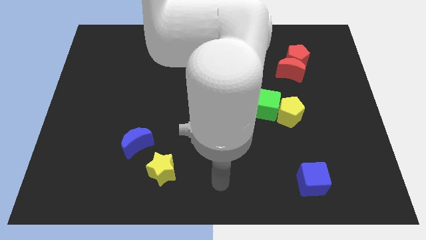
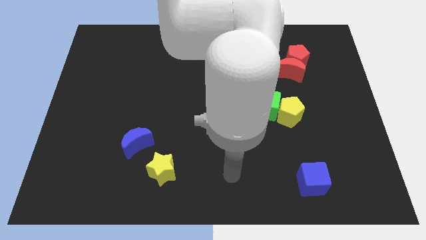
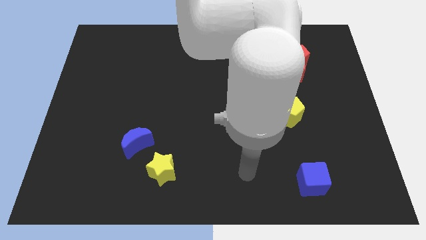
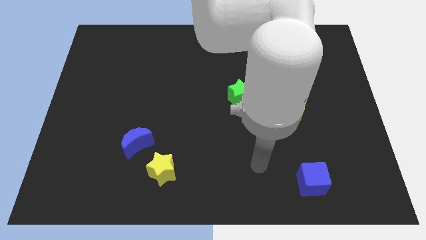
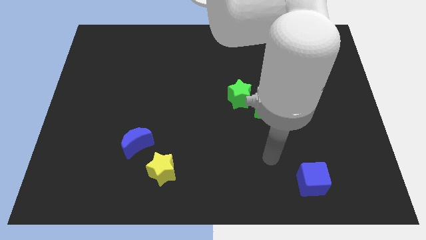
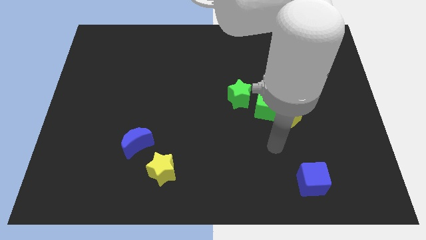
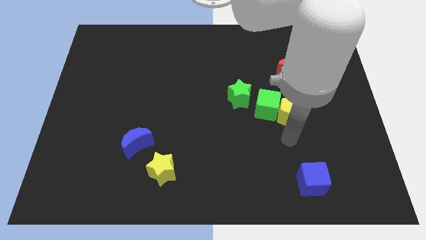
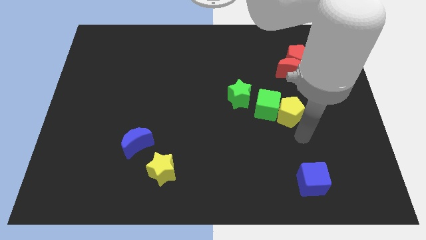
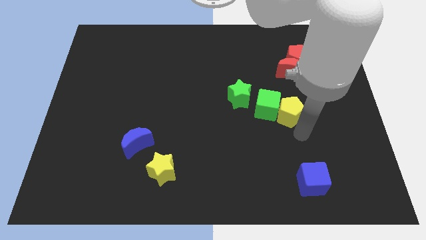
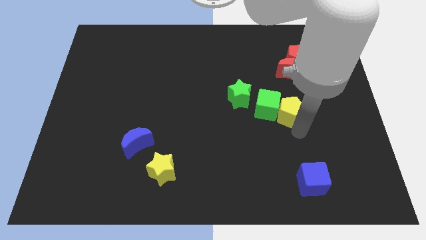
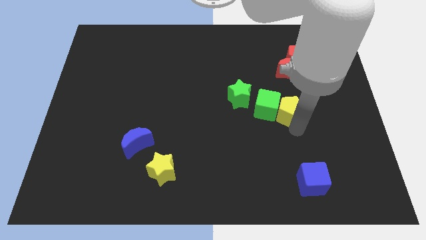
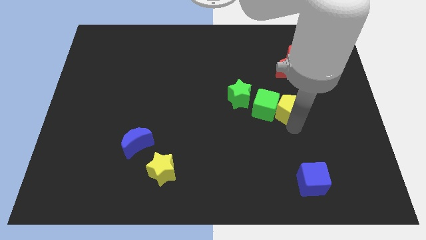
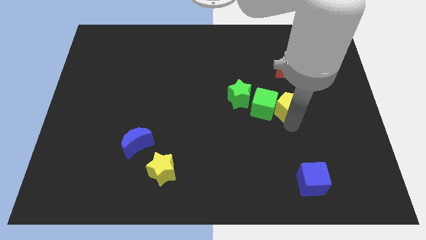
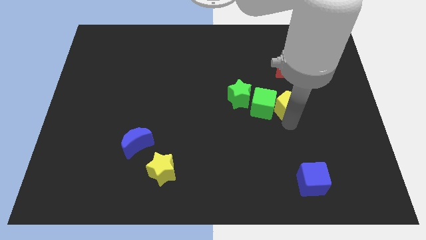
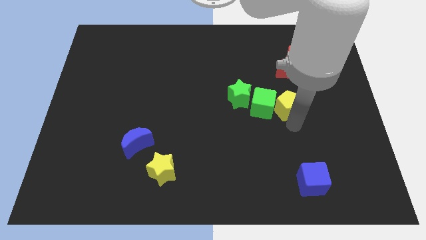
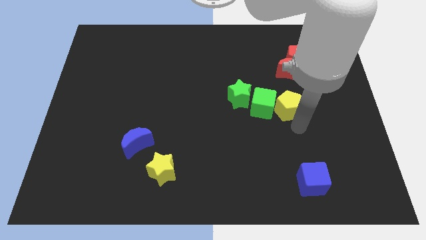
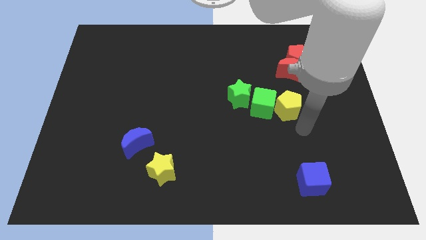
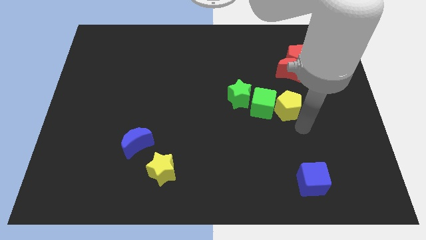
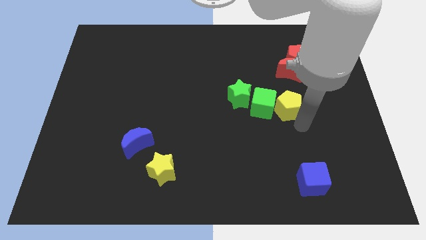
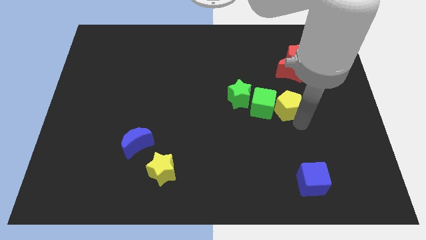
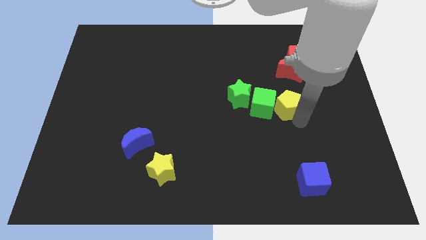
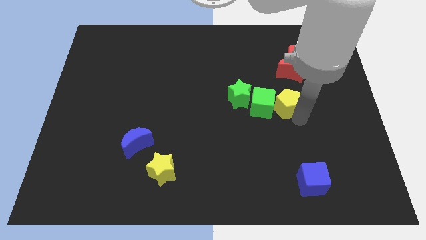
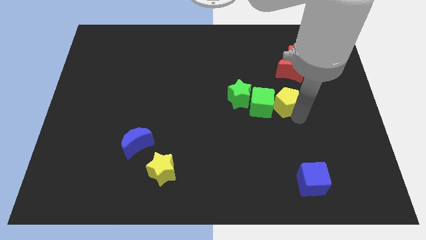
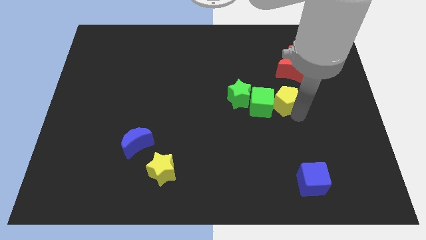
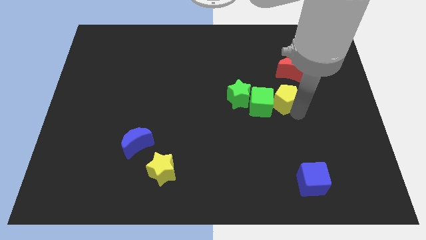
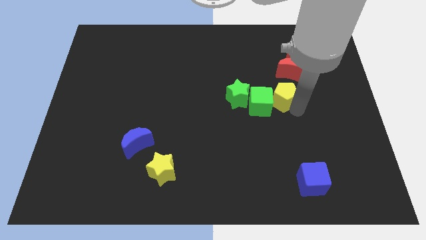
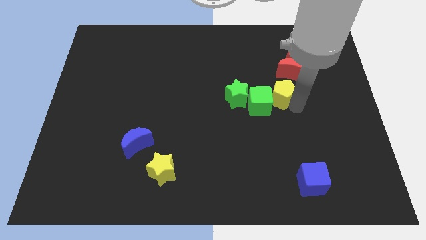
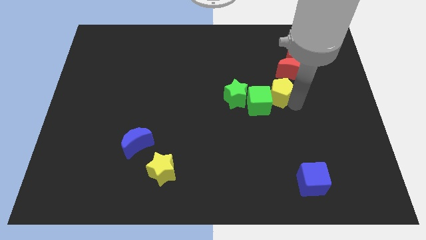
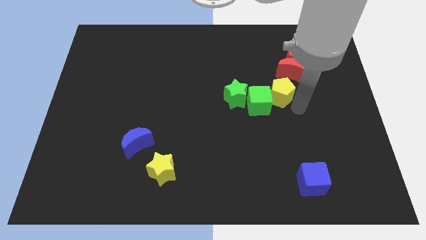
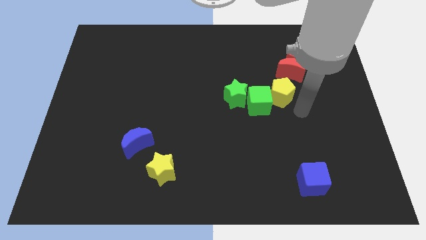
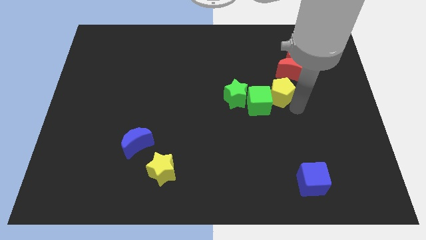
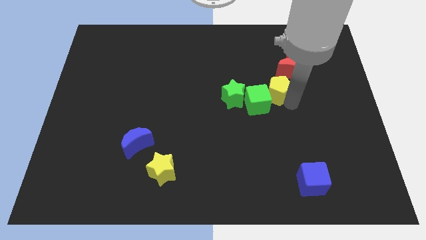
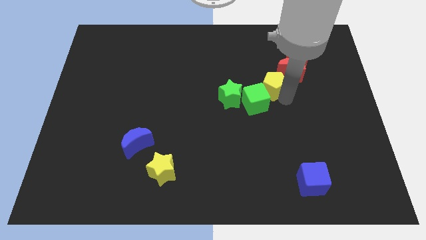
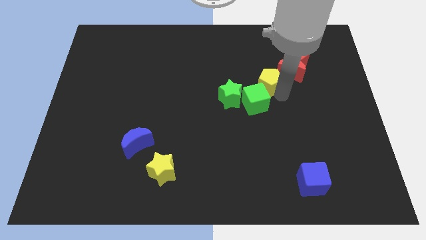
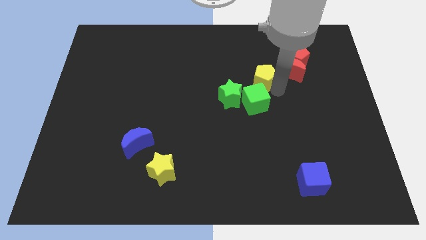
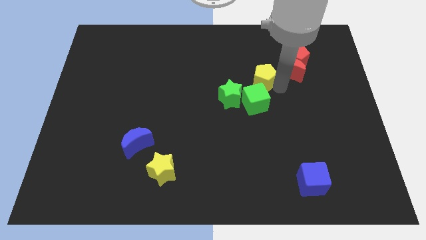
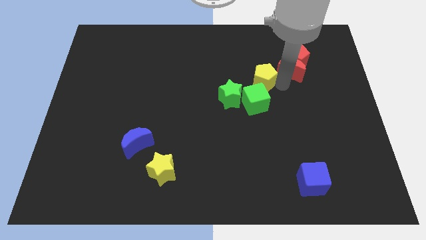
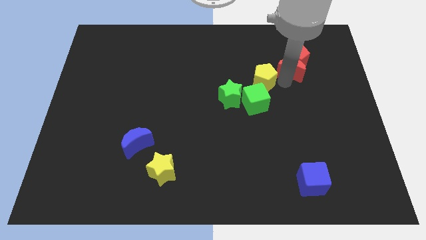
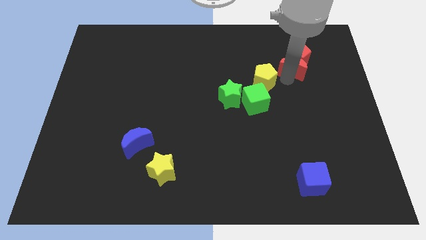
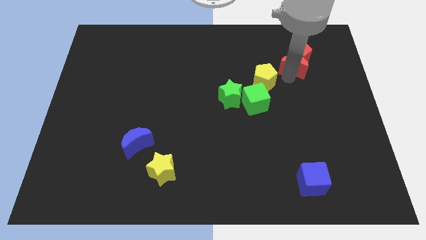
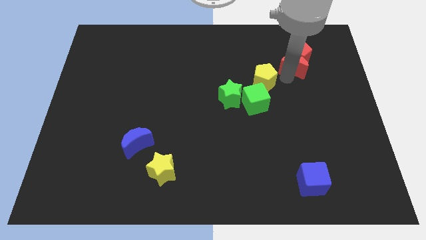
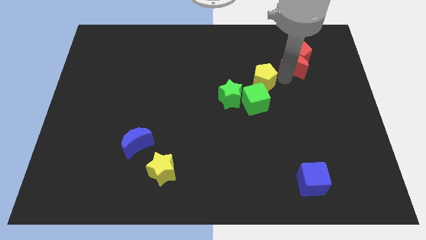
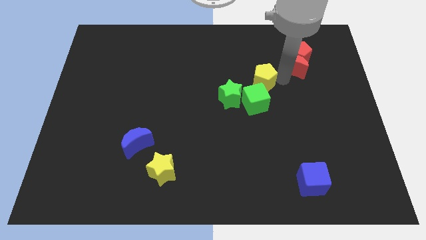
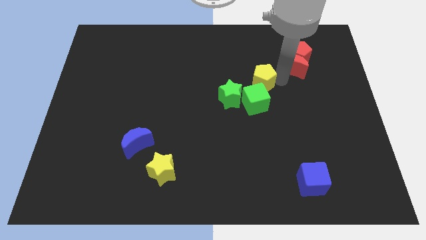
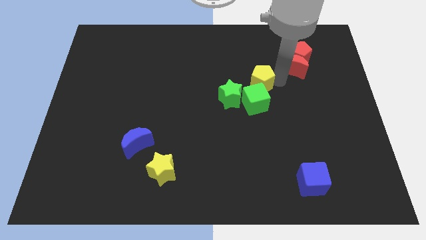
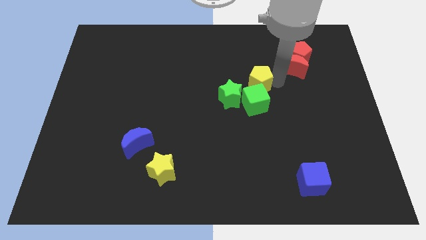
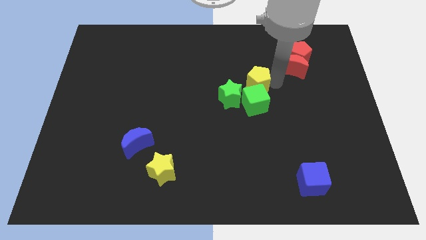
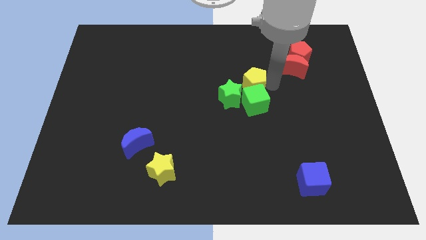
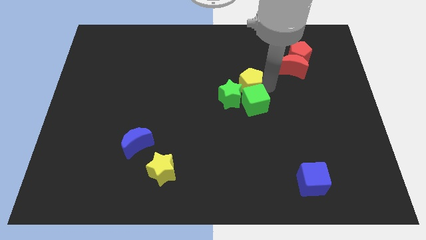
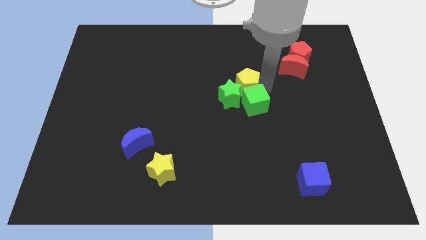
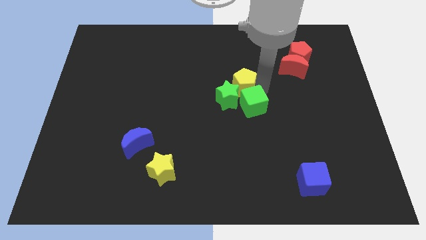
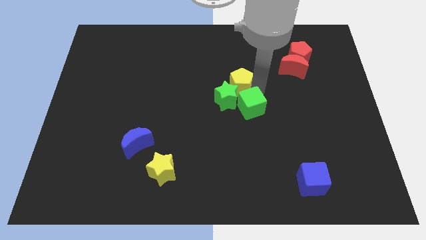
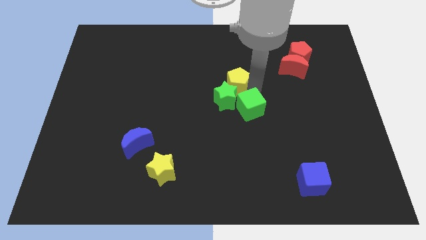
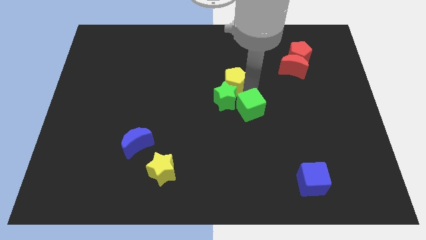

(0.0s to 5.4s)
slide the yellow pentagon diagonally up and to the left of the green star

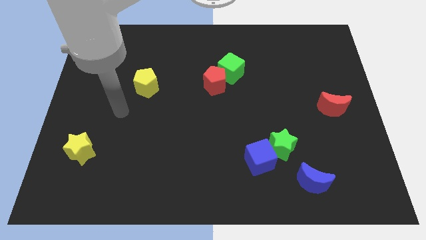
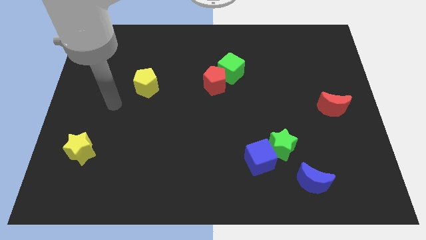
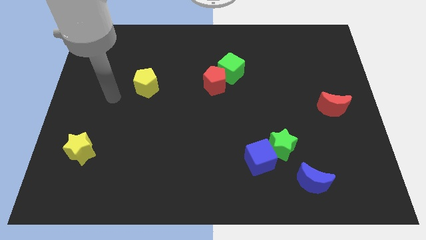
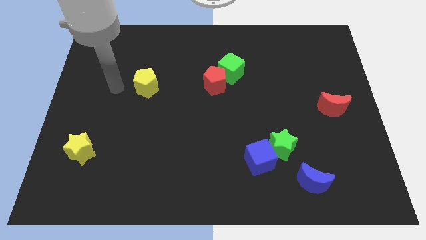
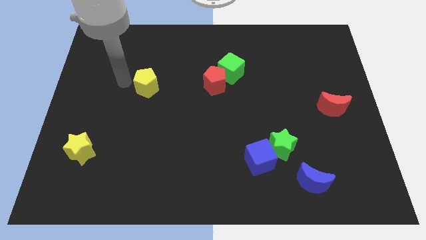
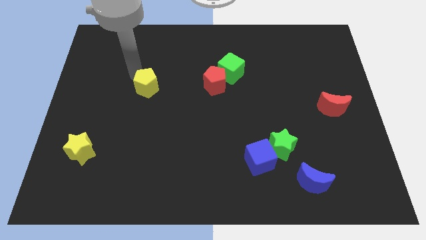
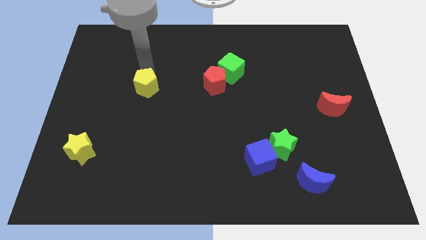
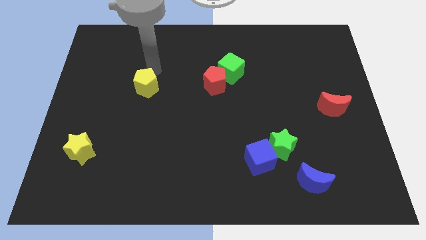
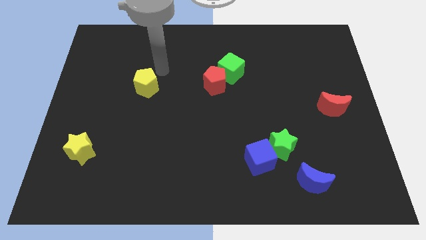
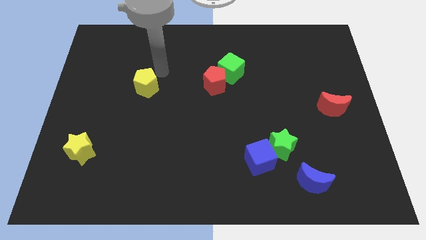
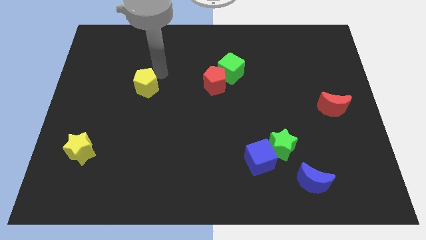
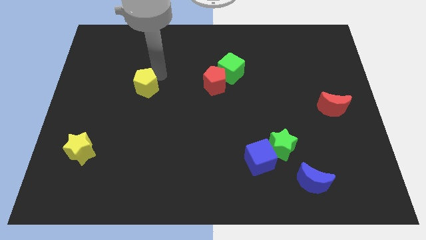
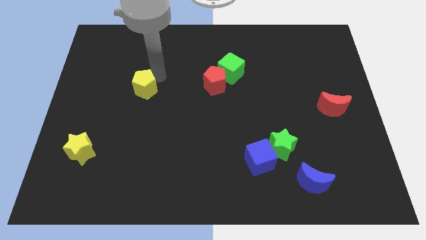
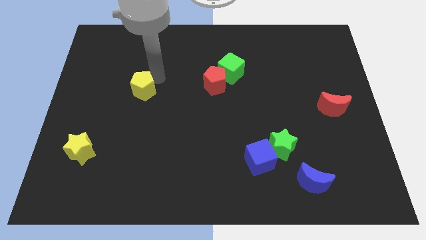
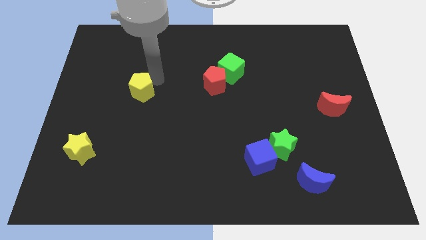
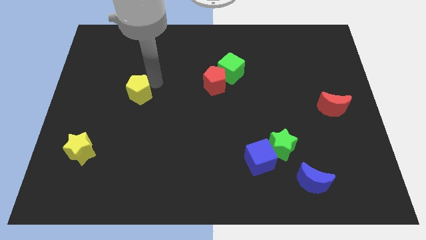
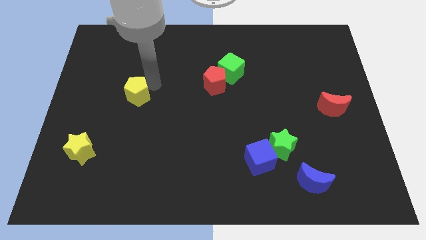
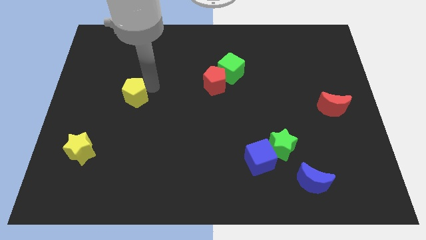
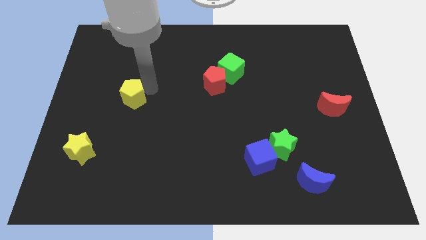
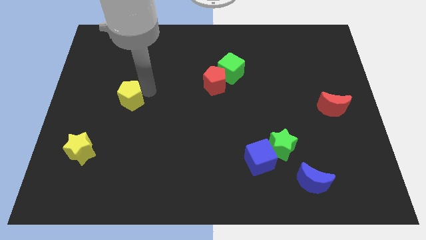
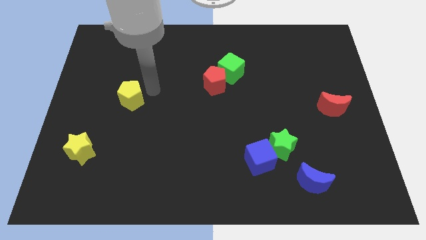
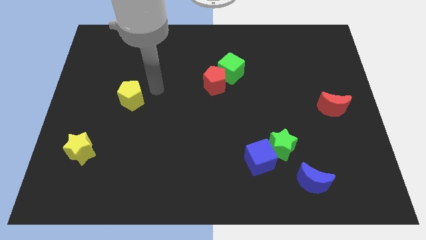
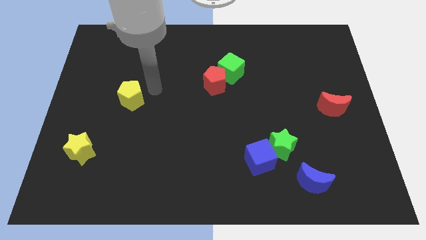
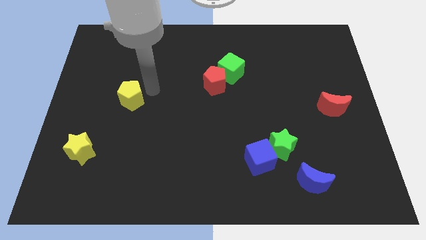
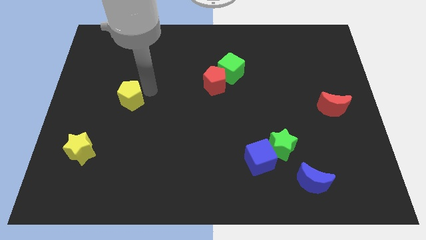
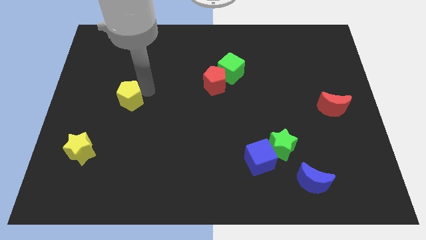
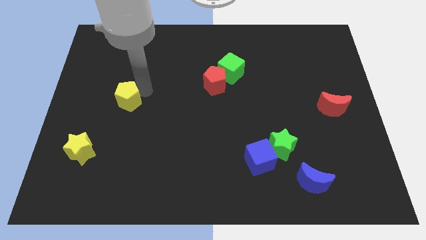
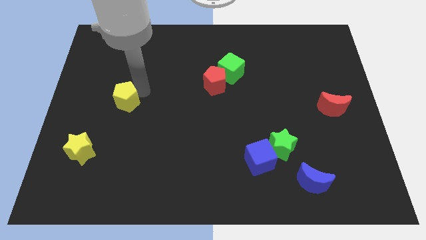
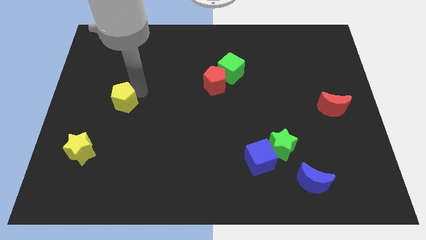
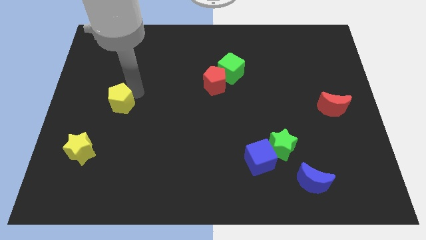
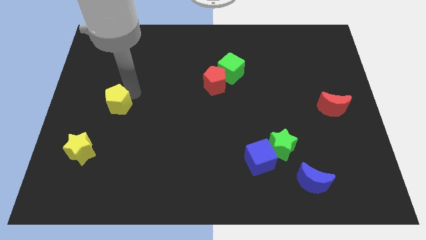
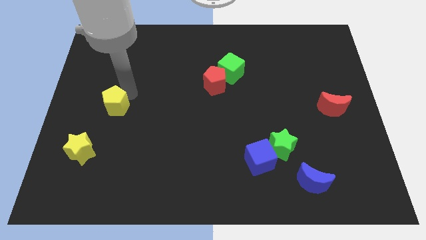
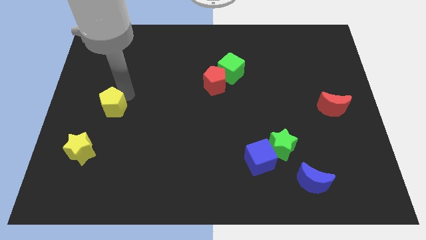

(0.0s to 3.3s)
put the yellow pentagon to the top of the yellow star
